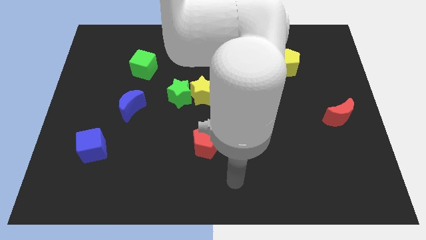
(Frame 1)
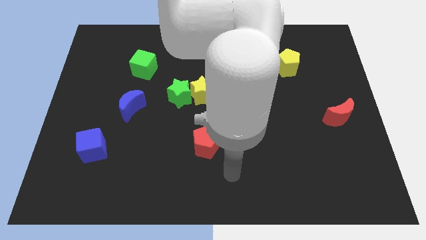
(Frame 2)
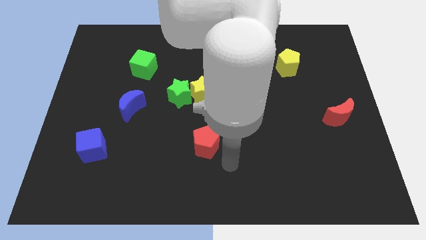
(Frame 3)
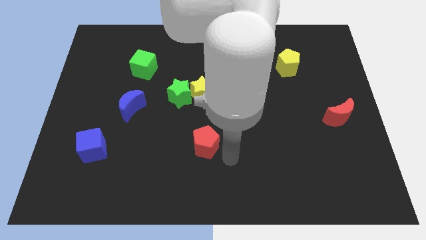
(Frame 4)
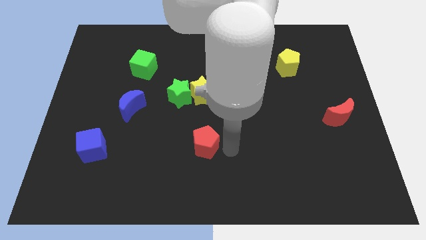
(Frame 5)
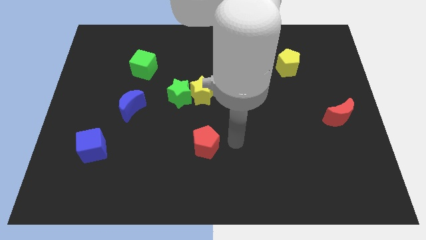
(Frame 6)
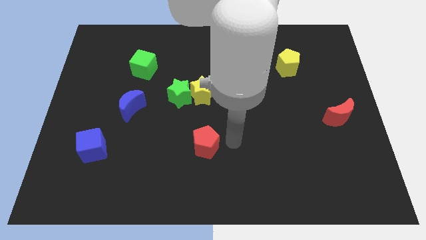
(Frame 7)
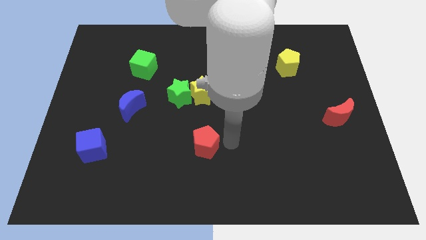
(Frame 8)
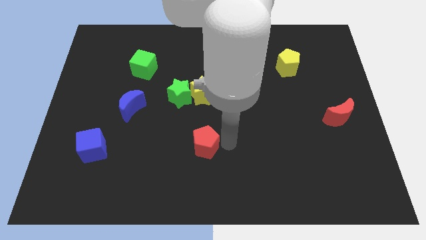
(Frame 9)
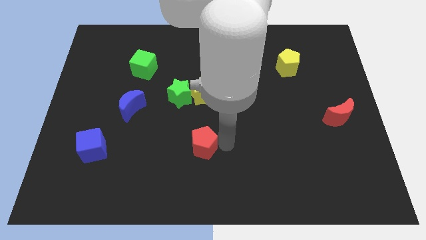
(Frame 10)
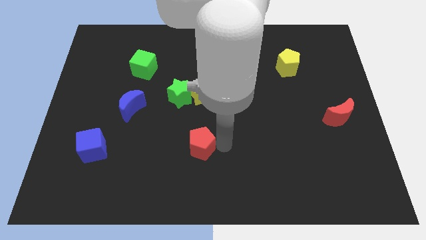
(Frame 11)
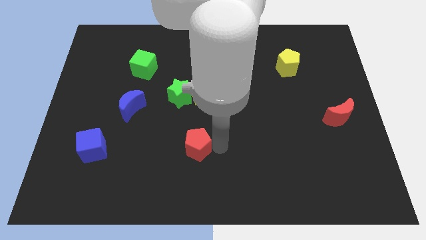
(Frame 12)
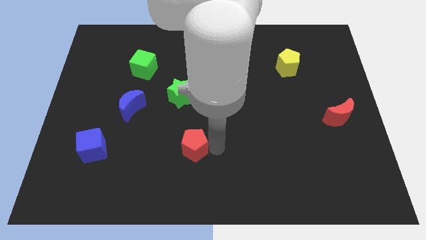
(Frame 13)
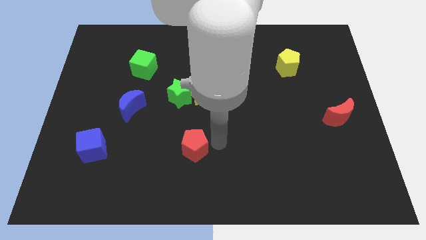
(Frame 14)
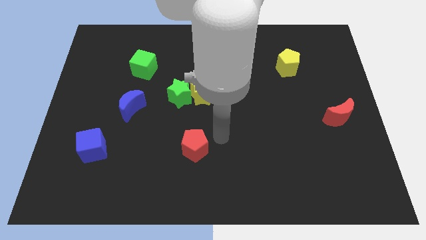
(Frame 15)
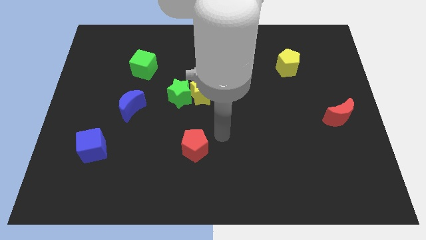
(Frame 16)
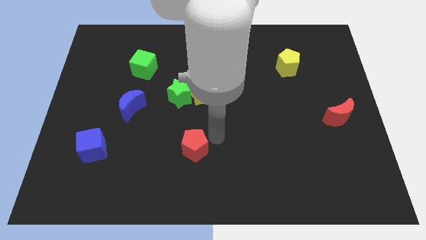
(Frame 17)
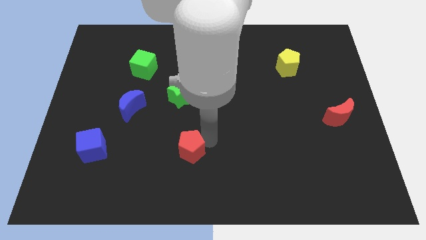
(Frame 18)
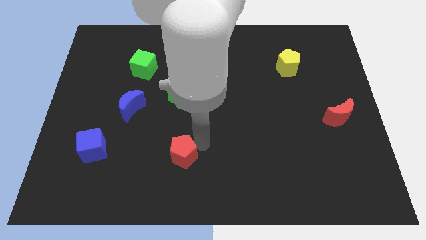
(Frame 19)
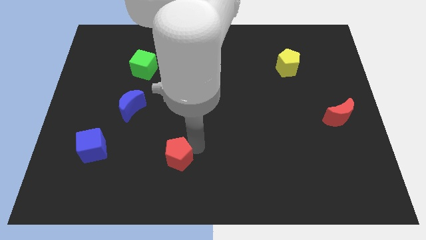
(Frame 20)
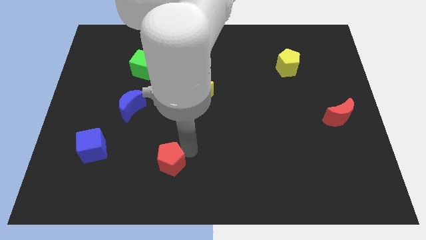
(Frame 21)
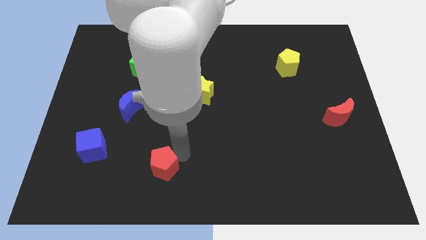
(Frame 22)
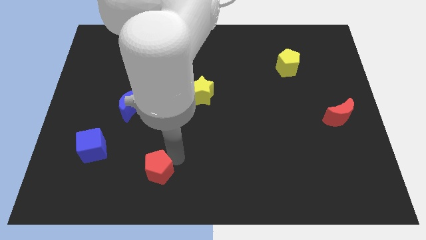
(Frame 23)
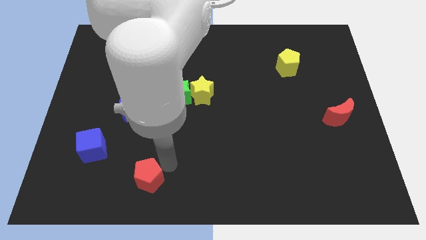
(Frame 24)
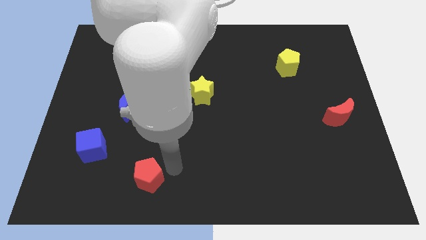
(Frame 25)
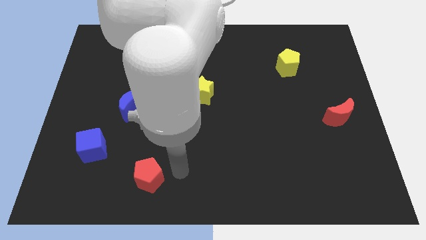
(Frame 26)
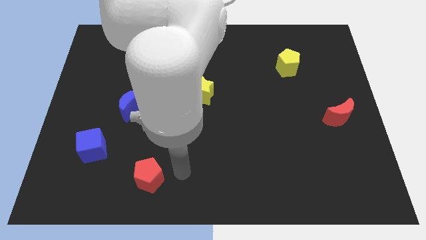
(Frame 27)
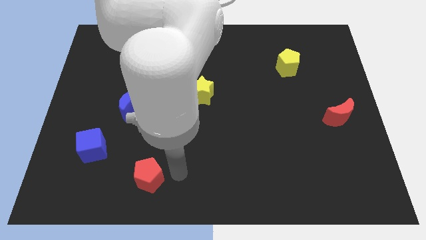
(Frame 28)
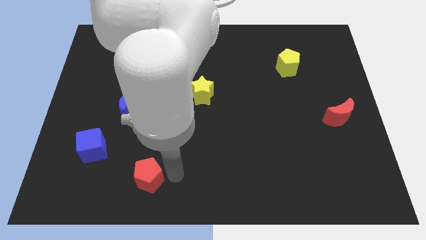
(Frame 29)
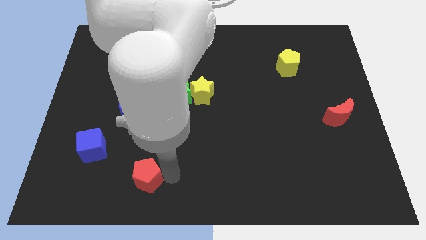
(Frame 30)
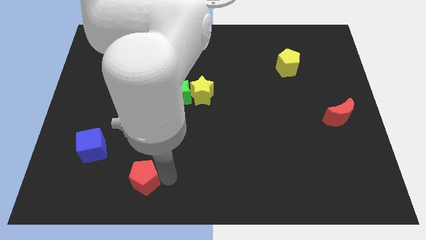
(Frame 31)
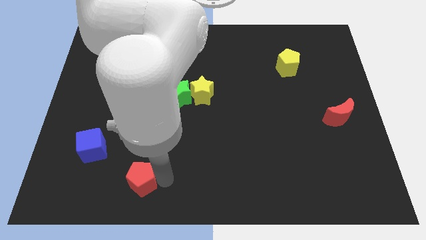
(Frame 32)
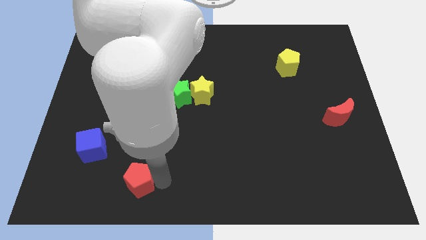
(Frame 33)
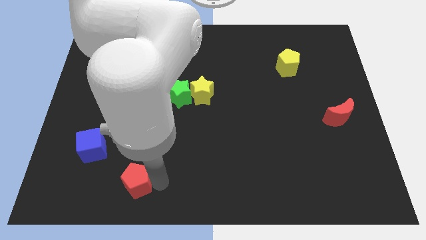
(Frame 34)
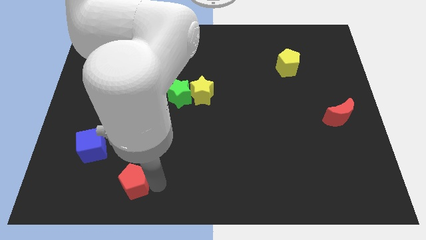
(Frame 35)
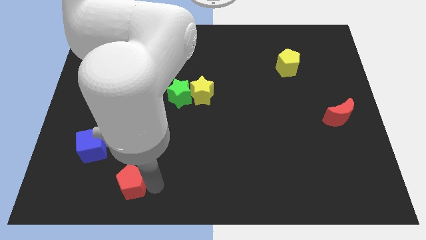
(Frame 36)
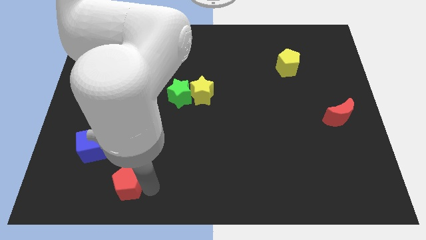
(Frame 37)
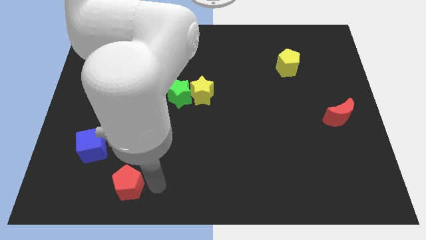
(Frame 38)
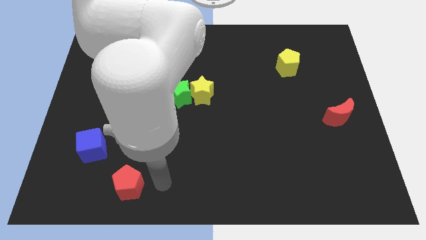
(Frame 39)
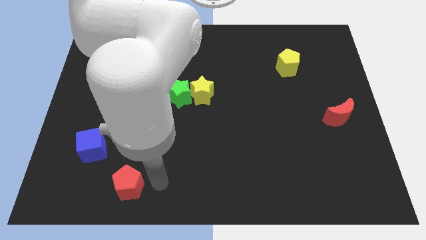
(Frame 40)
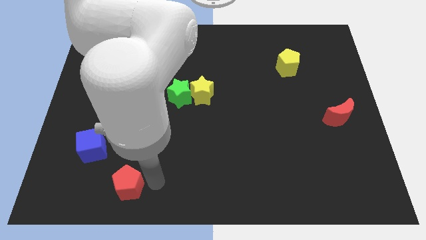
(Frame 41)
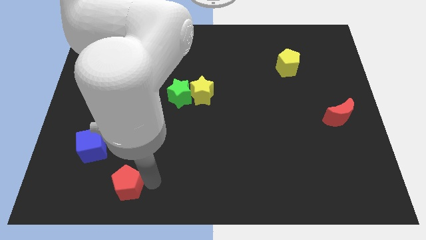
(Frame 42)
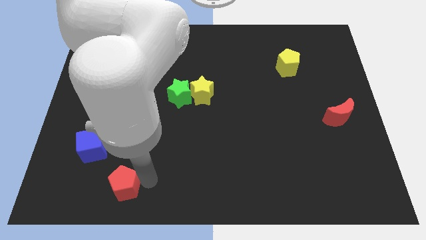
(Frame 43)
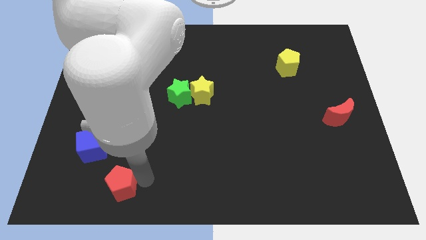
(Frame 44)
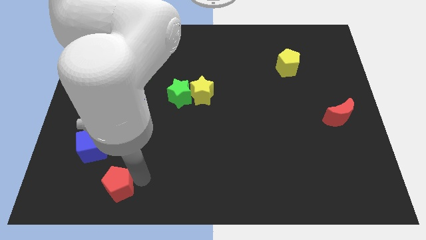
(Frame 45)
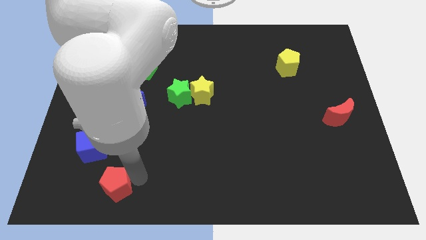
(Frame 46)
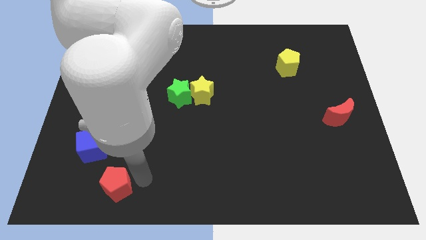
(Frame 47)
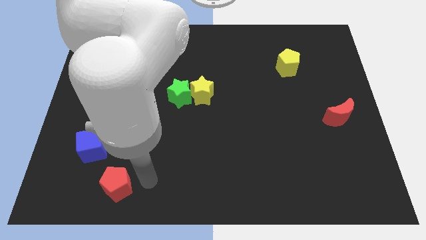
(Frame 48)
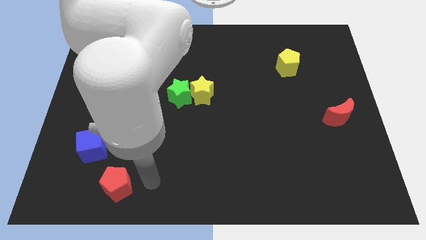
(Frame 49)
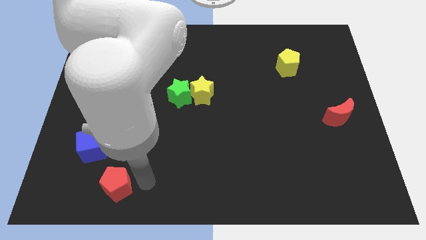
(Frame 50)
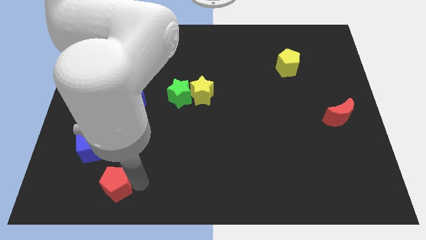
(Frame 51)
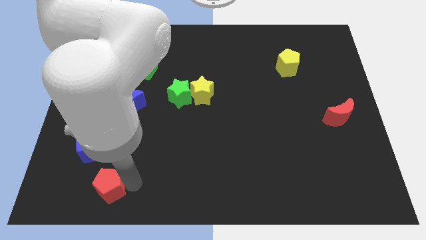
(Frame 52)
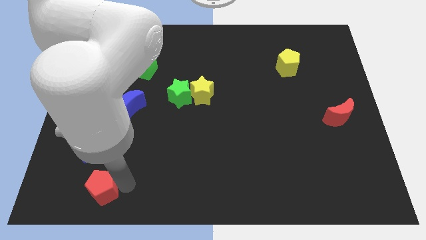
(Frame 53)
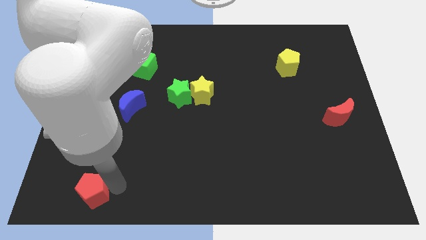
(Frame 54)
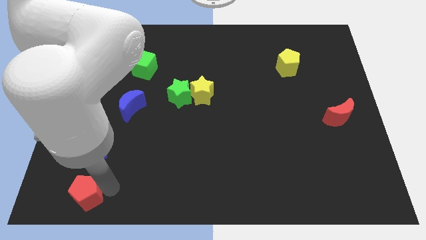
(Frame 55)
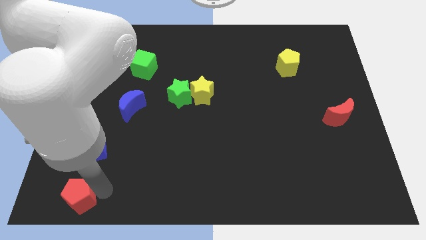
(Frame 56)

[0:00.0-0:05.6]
slide the red pentagon to the bottom left of the board
